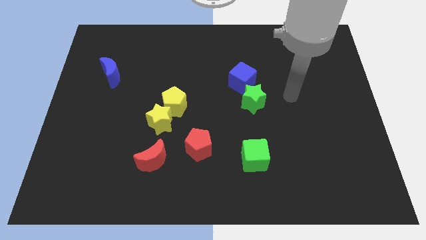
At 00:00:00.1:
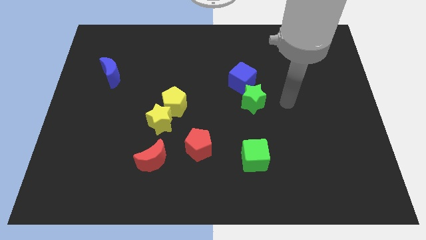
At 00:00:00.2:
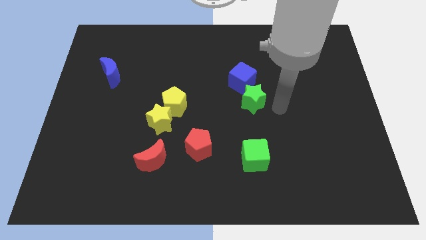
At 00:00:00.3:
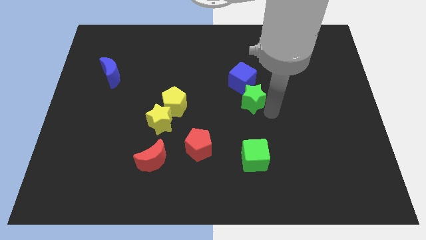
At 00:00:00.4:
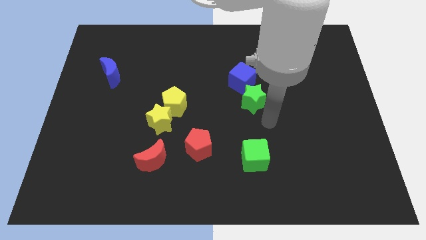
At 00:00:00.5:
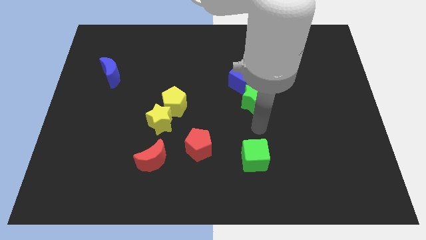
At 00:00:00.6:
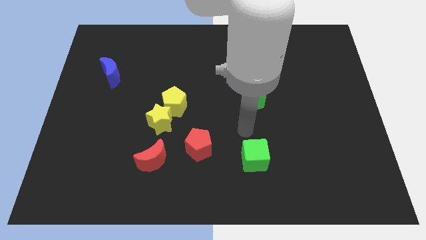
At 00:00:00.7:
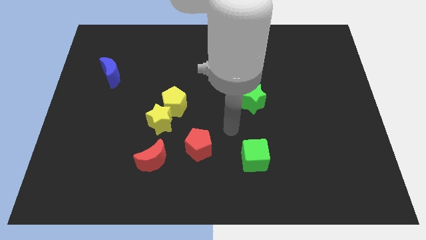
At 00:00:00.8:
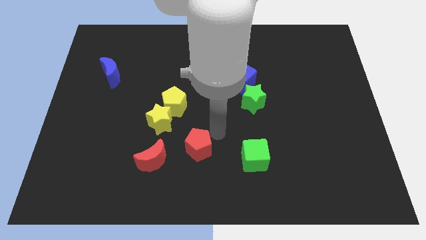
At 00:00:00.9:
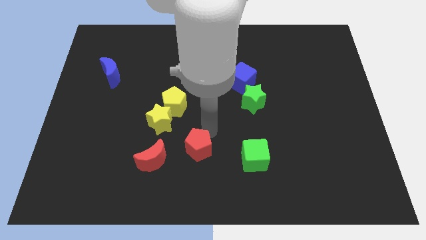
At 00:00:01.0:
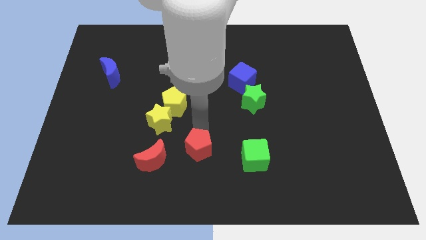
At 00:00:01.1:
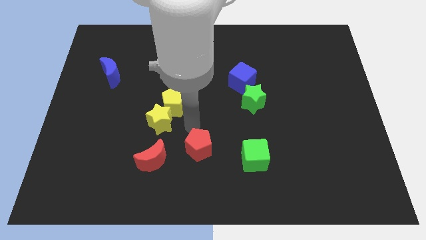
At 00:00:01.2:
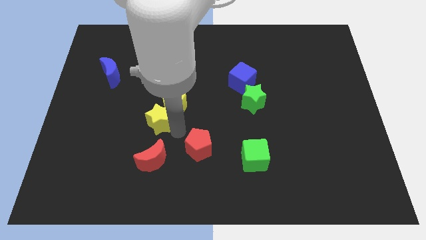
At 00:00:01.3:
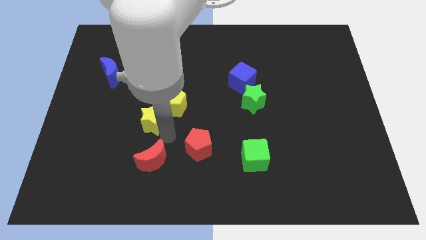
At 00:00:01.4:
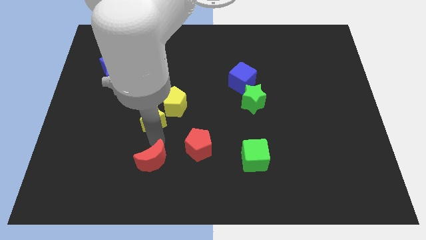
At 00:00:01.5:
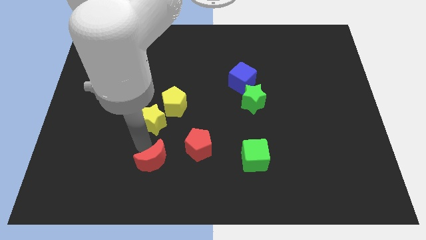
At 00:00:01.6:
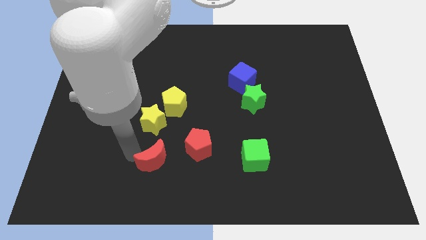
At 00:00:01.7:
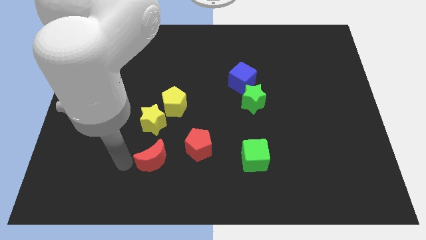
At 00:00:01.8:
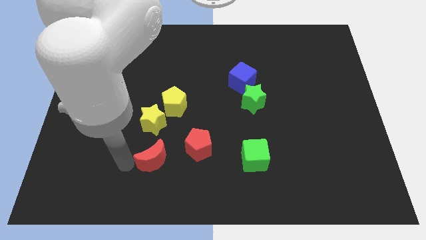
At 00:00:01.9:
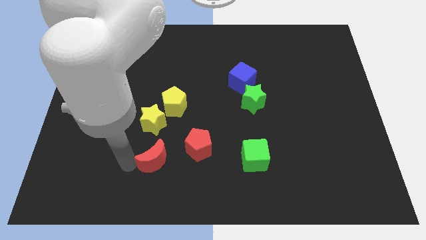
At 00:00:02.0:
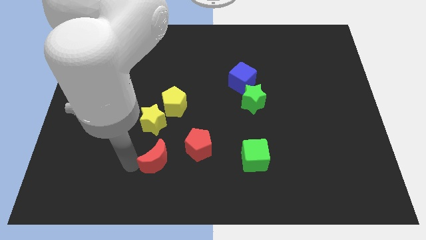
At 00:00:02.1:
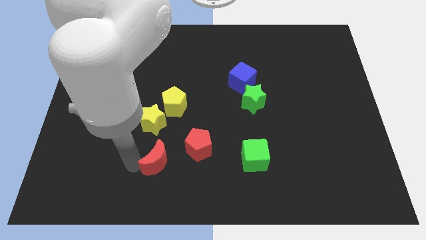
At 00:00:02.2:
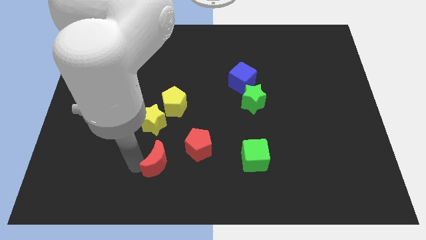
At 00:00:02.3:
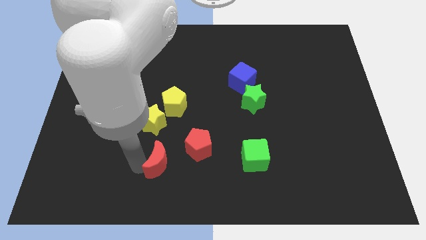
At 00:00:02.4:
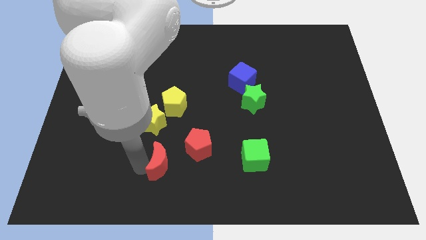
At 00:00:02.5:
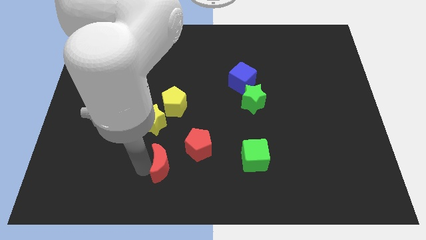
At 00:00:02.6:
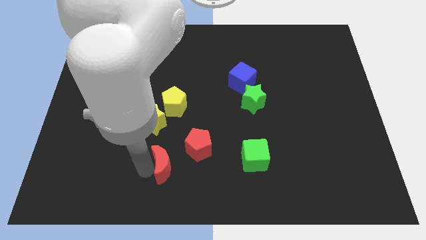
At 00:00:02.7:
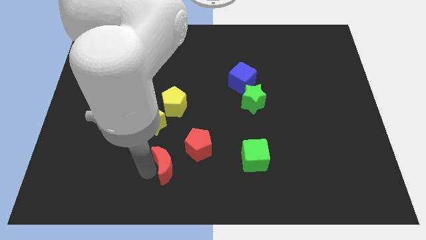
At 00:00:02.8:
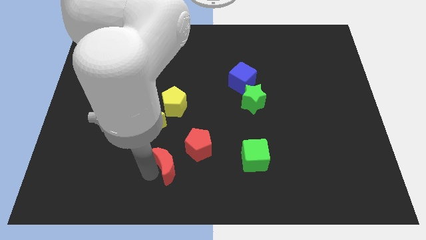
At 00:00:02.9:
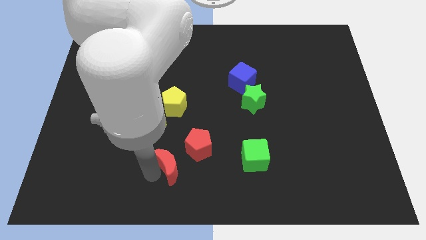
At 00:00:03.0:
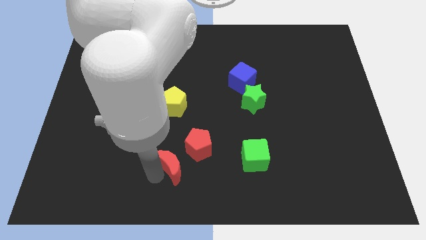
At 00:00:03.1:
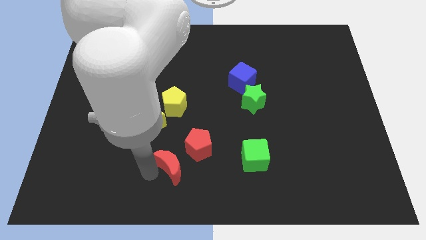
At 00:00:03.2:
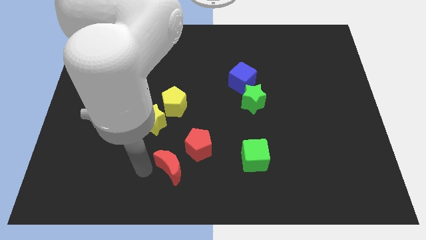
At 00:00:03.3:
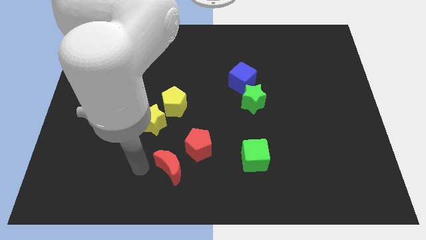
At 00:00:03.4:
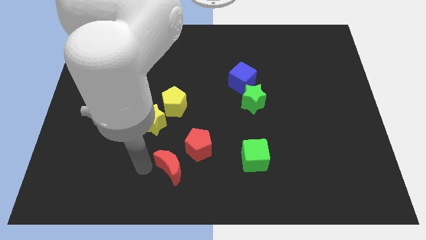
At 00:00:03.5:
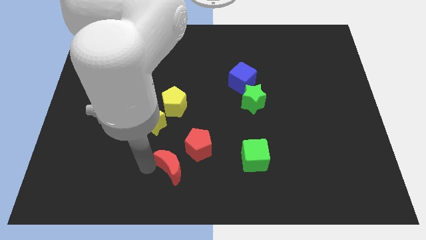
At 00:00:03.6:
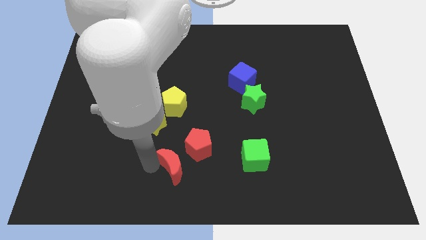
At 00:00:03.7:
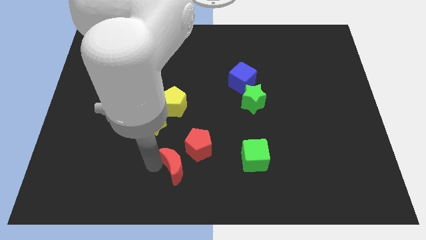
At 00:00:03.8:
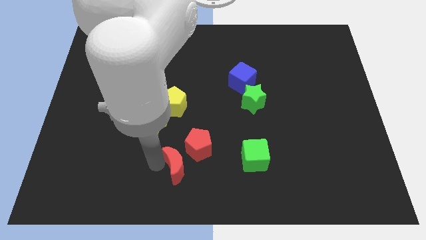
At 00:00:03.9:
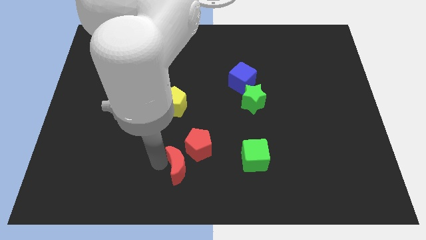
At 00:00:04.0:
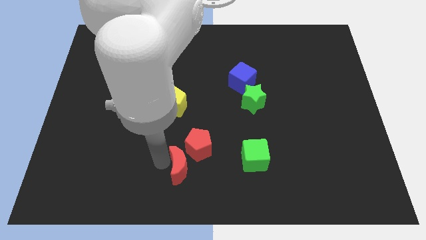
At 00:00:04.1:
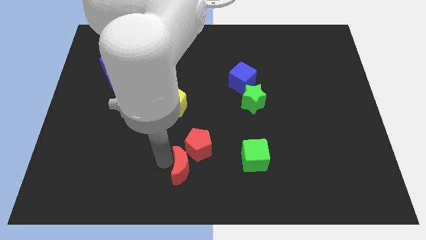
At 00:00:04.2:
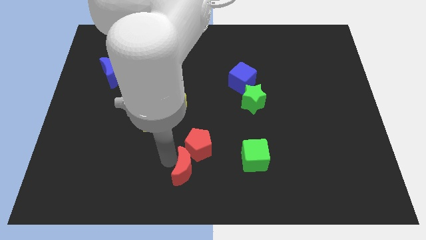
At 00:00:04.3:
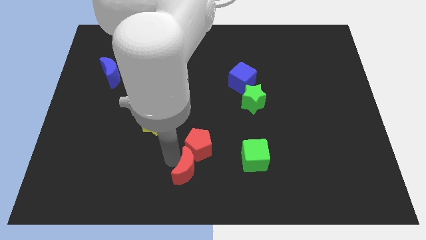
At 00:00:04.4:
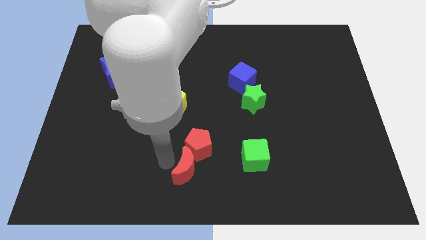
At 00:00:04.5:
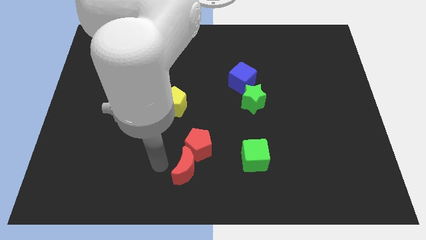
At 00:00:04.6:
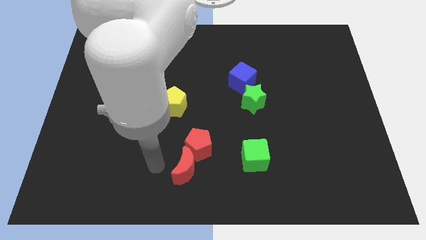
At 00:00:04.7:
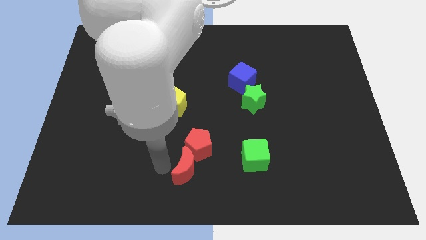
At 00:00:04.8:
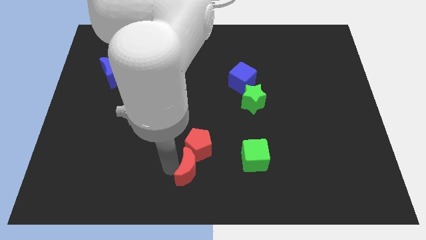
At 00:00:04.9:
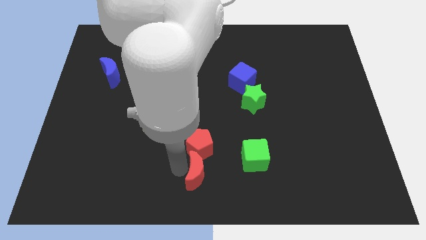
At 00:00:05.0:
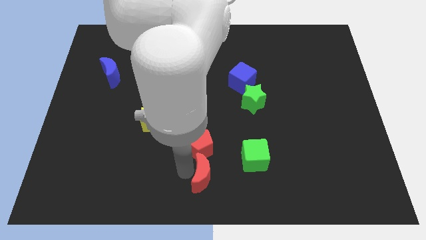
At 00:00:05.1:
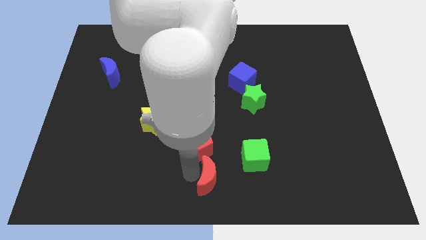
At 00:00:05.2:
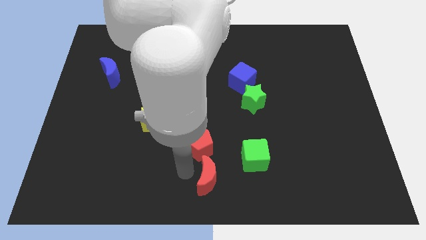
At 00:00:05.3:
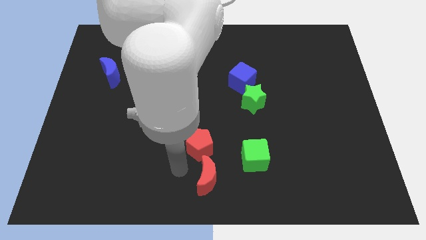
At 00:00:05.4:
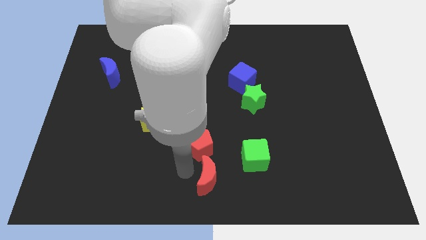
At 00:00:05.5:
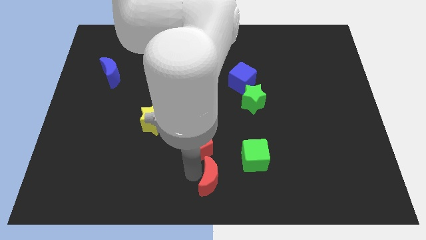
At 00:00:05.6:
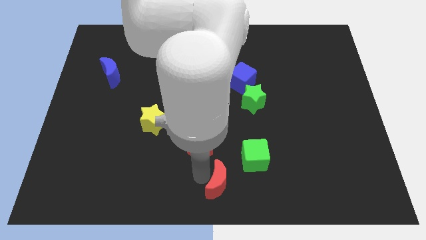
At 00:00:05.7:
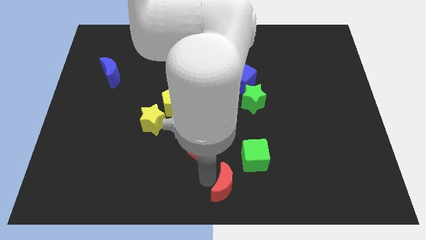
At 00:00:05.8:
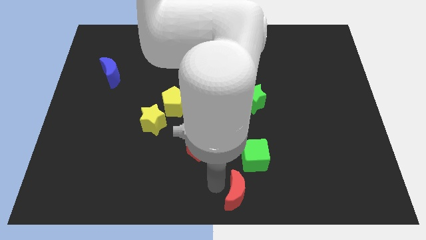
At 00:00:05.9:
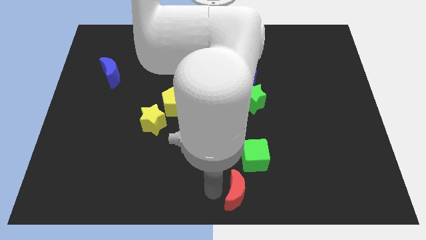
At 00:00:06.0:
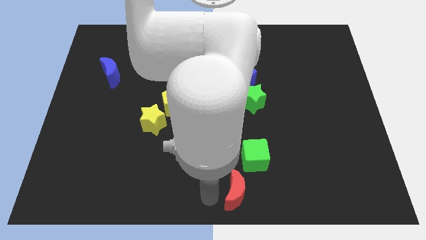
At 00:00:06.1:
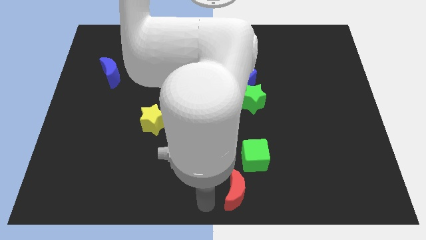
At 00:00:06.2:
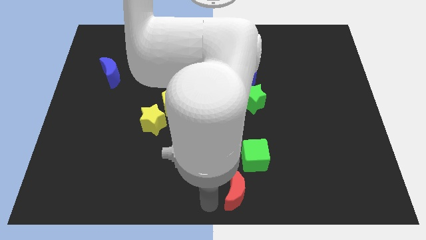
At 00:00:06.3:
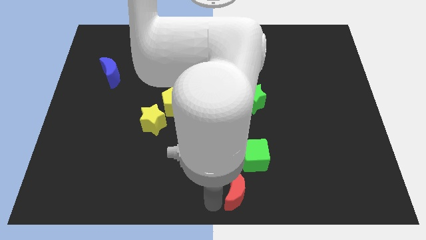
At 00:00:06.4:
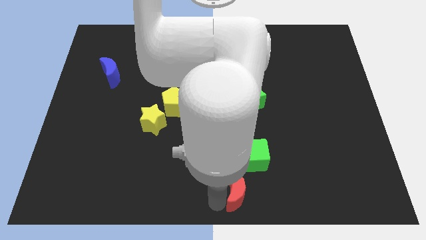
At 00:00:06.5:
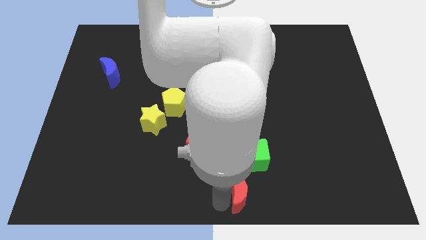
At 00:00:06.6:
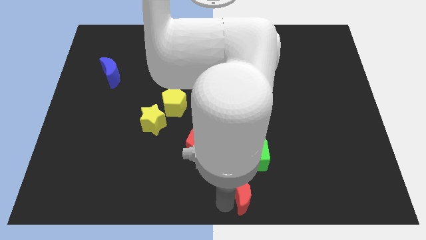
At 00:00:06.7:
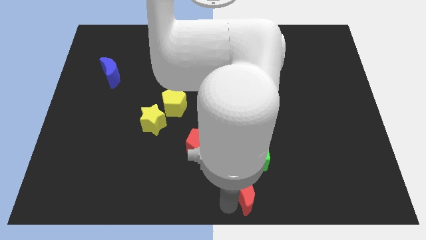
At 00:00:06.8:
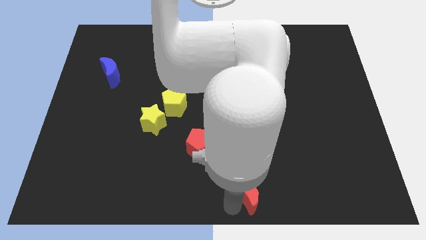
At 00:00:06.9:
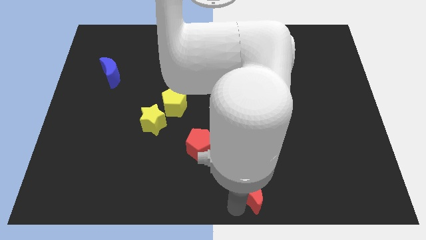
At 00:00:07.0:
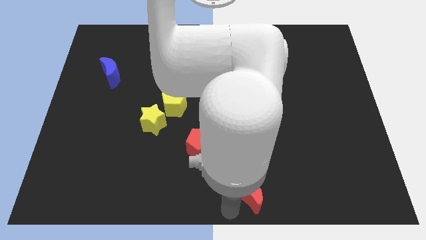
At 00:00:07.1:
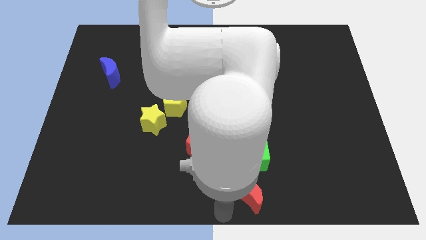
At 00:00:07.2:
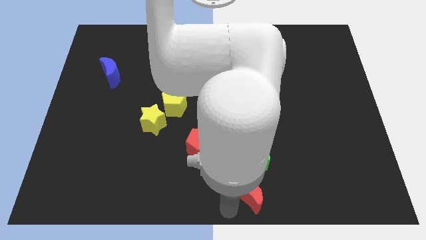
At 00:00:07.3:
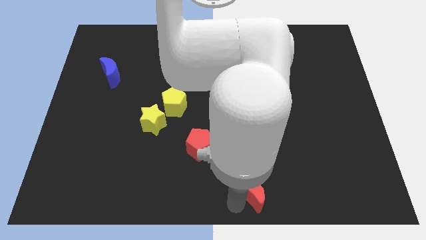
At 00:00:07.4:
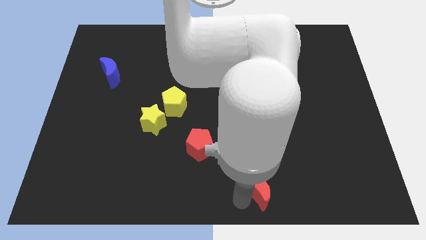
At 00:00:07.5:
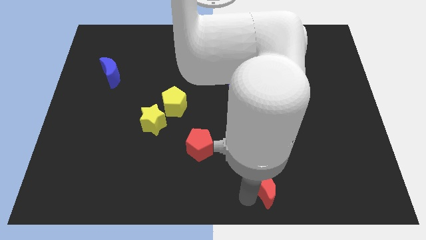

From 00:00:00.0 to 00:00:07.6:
slide the red moon right

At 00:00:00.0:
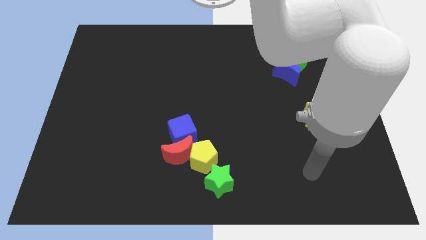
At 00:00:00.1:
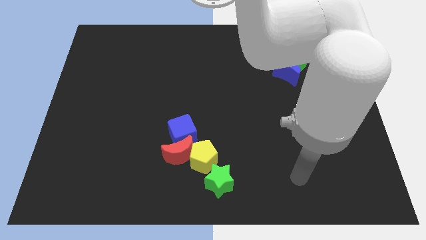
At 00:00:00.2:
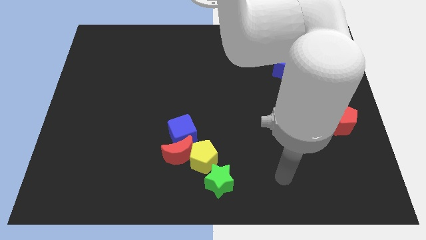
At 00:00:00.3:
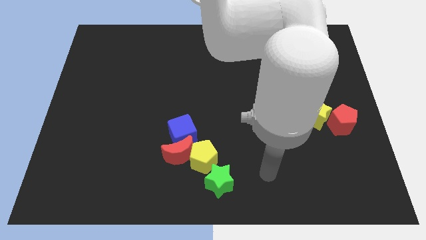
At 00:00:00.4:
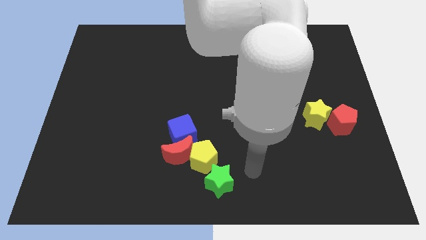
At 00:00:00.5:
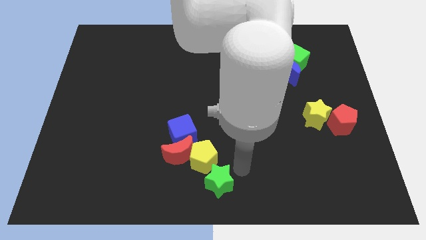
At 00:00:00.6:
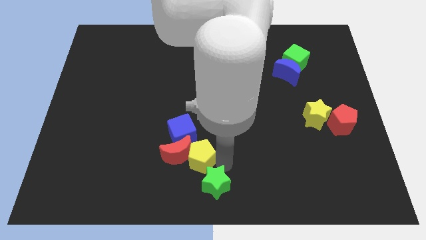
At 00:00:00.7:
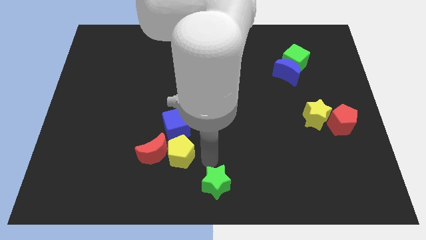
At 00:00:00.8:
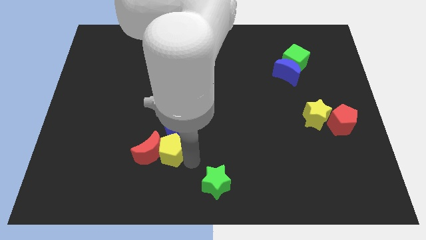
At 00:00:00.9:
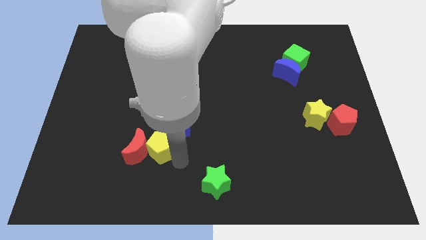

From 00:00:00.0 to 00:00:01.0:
push the red moon left a little
